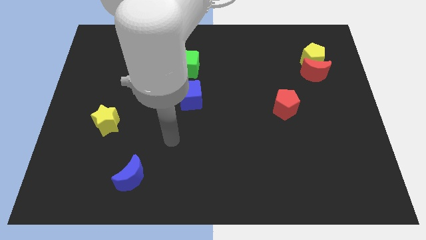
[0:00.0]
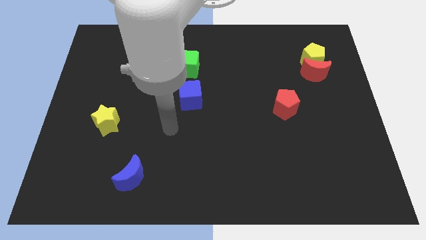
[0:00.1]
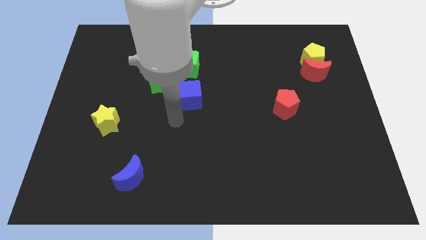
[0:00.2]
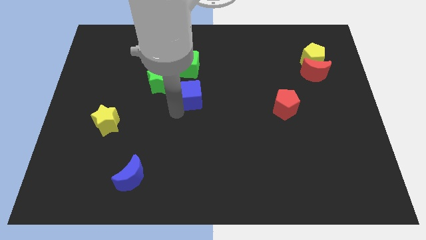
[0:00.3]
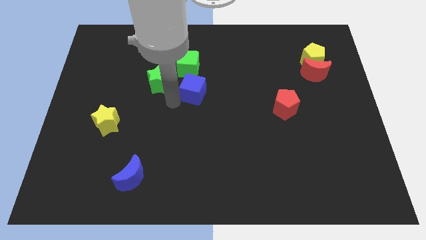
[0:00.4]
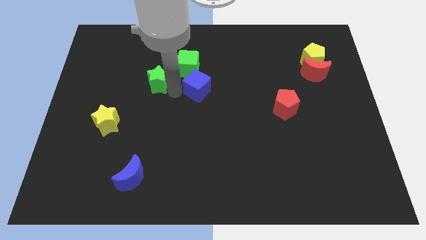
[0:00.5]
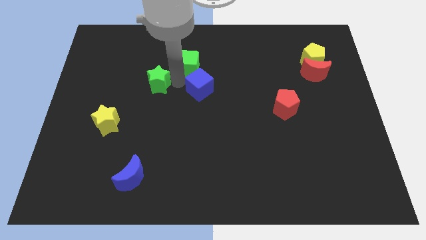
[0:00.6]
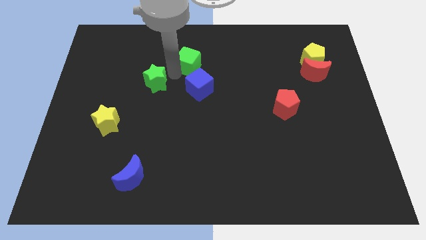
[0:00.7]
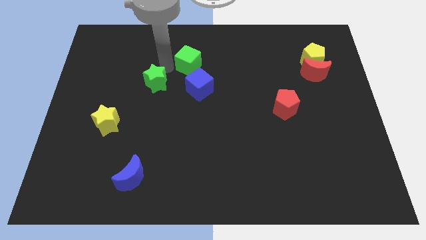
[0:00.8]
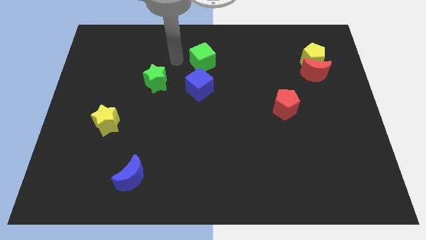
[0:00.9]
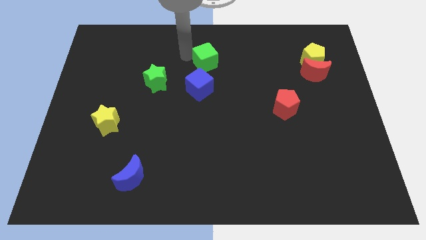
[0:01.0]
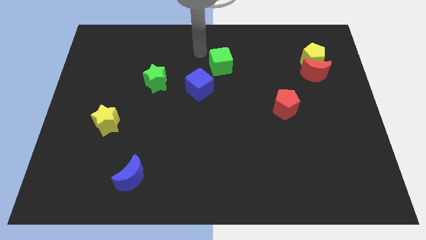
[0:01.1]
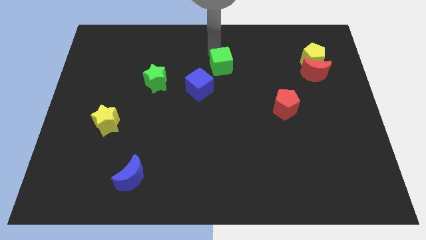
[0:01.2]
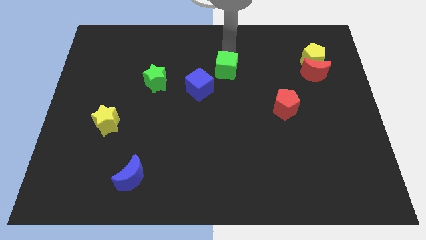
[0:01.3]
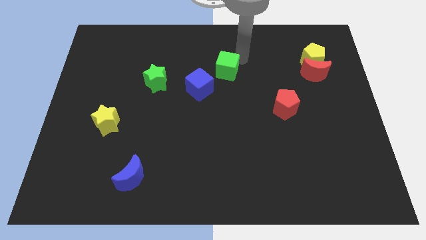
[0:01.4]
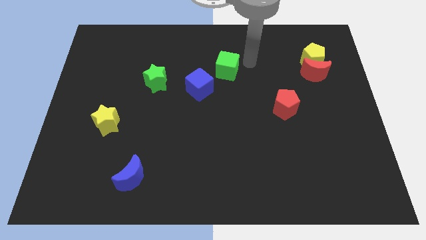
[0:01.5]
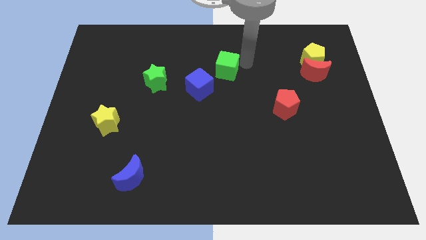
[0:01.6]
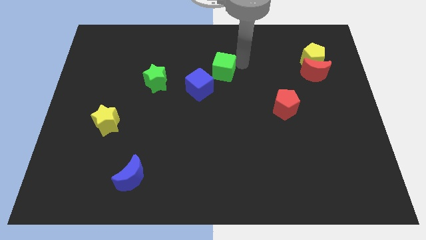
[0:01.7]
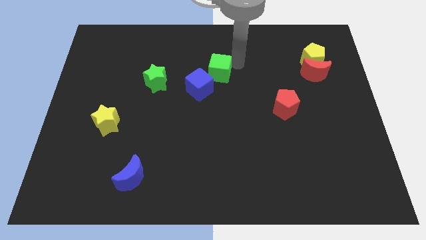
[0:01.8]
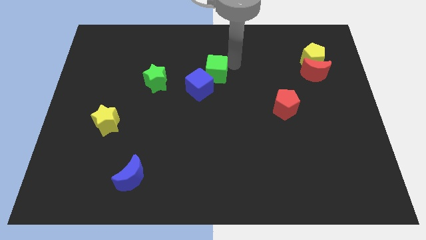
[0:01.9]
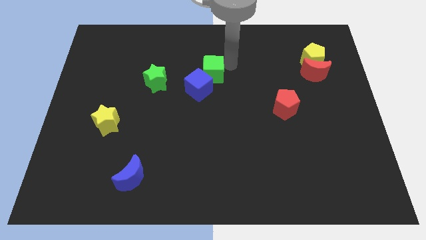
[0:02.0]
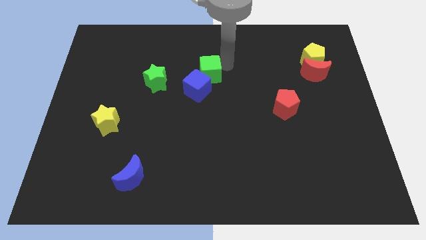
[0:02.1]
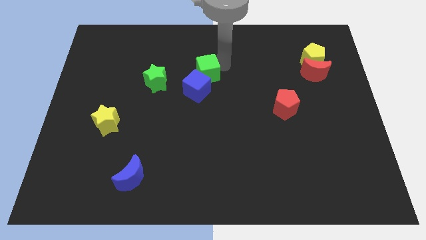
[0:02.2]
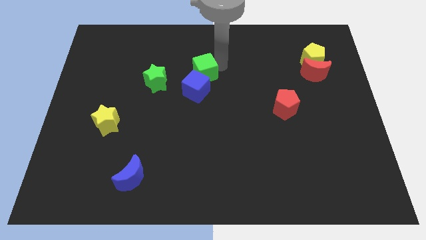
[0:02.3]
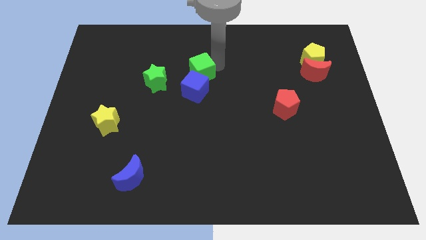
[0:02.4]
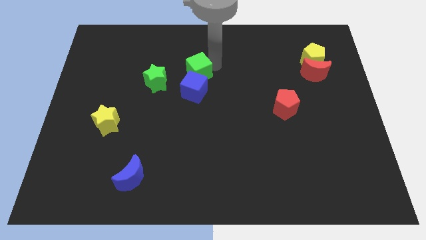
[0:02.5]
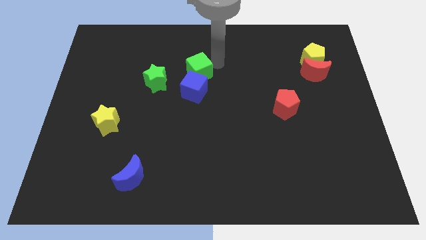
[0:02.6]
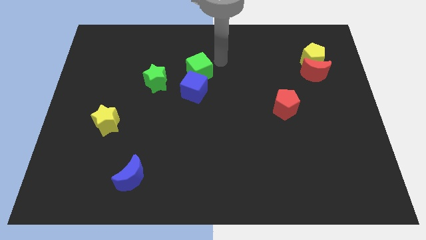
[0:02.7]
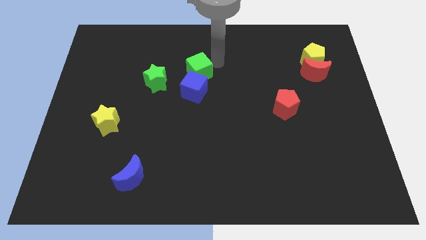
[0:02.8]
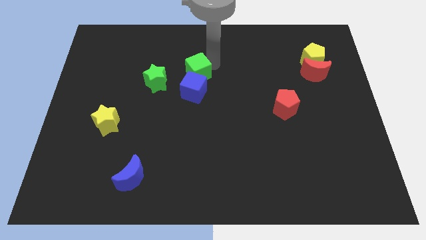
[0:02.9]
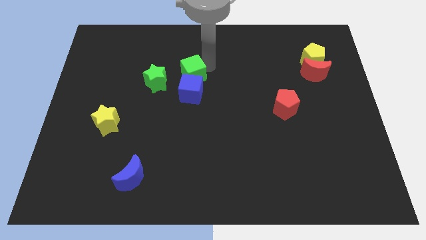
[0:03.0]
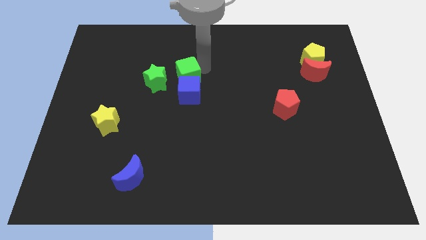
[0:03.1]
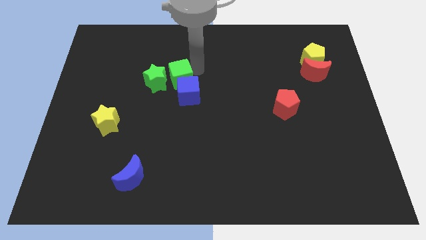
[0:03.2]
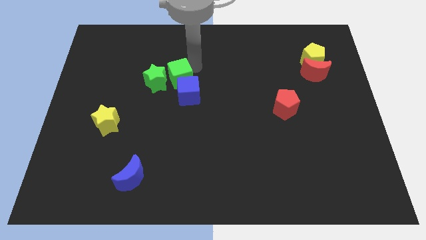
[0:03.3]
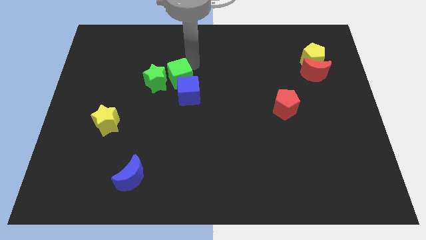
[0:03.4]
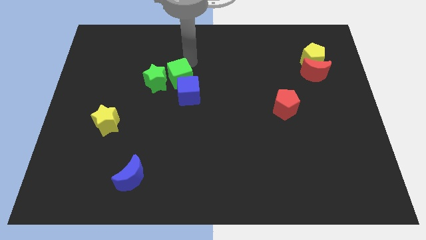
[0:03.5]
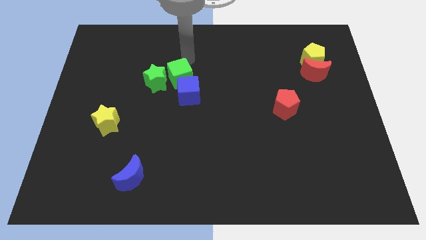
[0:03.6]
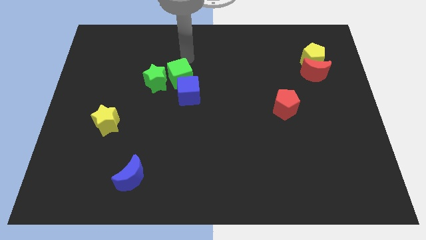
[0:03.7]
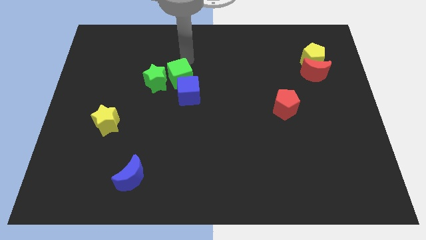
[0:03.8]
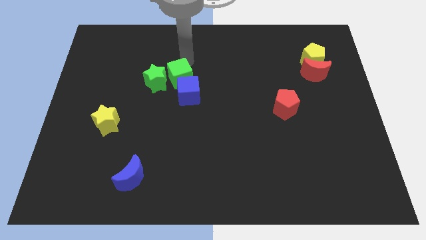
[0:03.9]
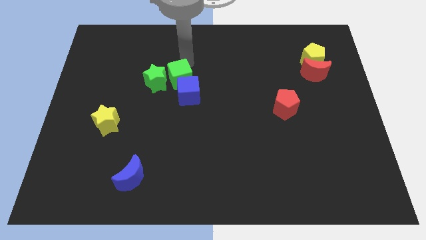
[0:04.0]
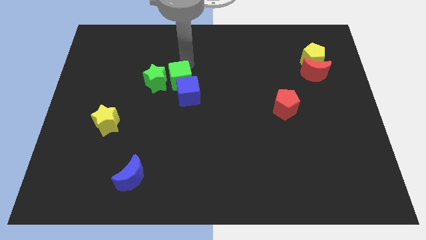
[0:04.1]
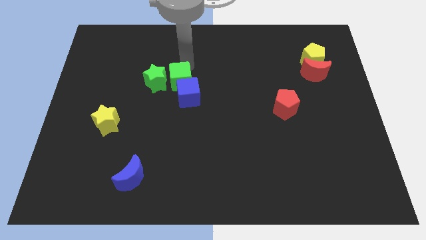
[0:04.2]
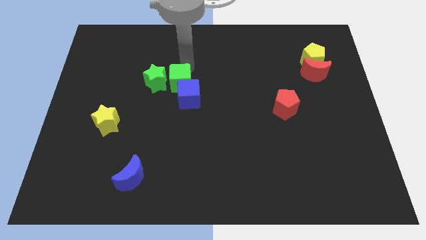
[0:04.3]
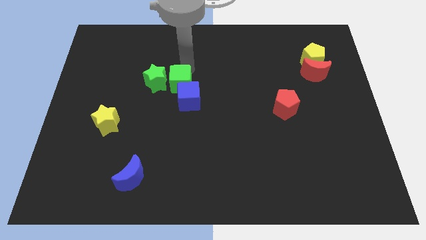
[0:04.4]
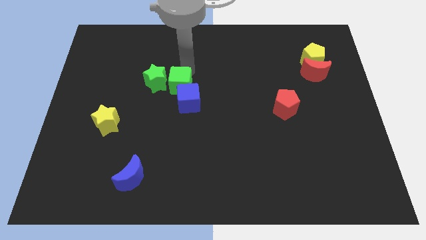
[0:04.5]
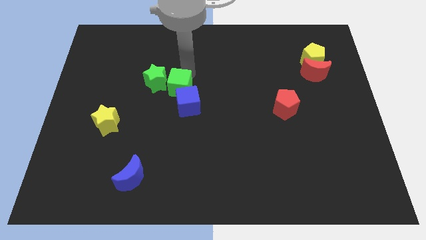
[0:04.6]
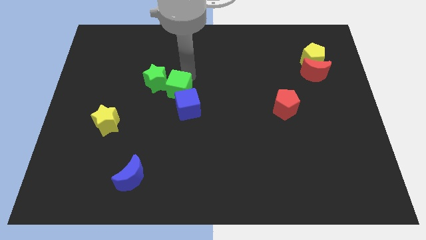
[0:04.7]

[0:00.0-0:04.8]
push the green cube somewhat downwards

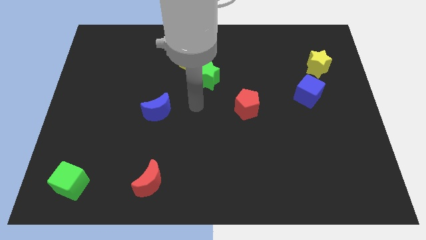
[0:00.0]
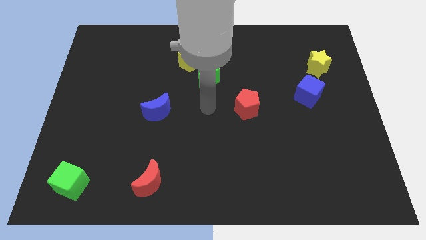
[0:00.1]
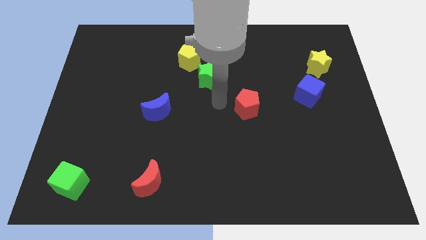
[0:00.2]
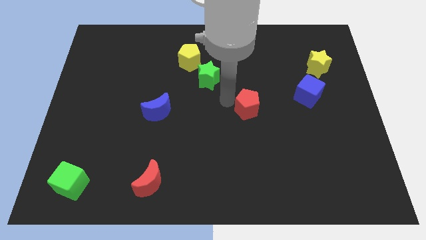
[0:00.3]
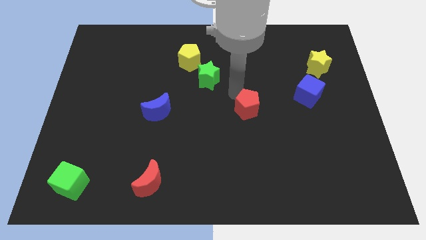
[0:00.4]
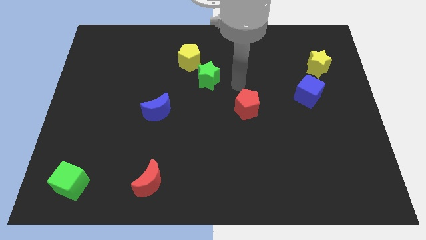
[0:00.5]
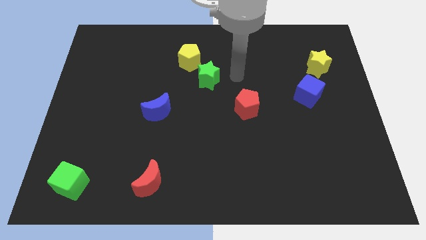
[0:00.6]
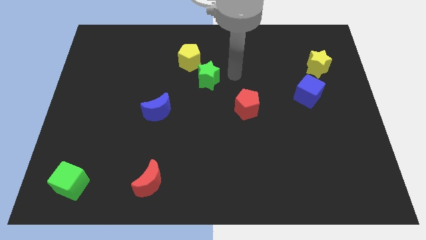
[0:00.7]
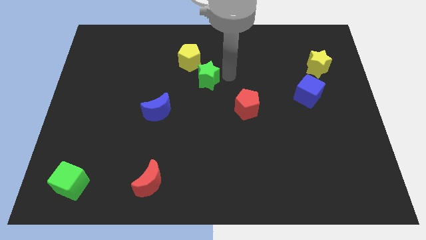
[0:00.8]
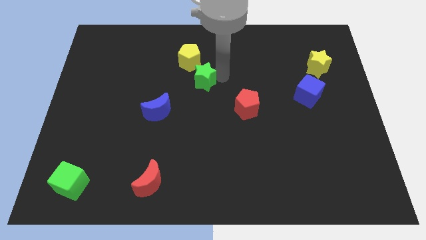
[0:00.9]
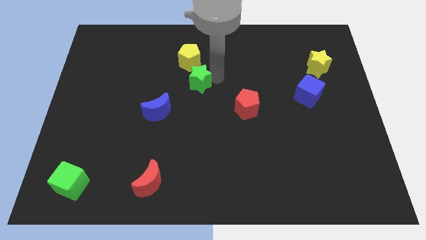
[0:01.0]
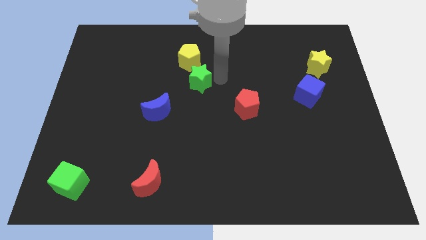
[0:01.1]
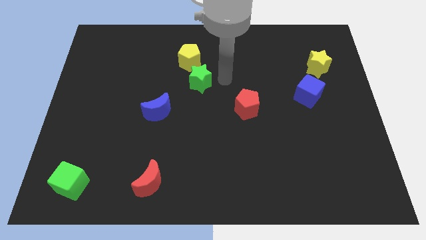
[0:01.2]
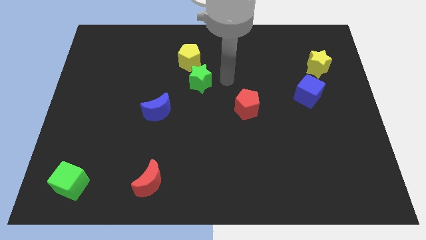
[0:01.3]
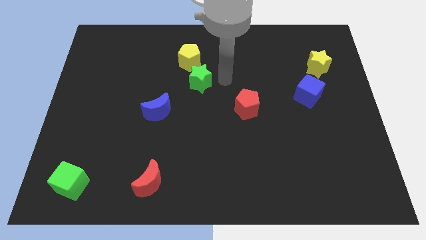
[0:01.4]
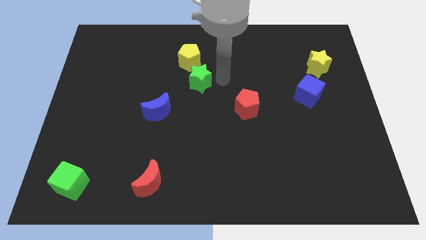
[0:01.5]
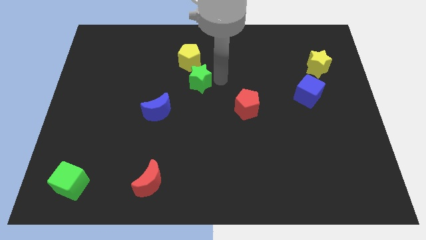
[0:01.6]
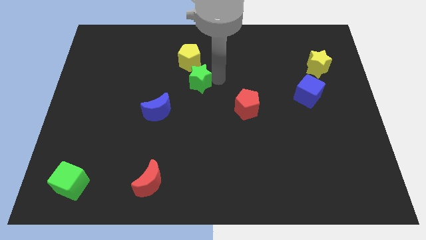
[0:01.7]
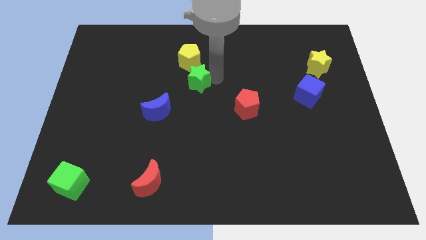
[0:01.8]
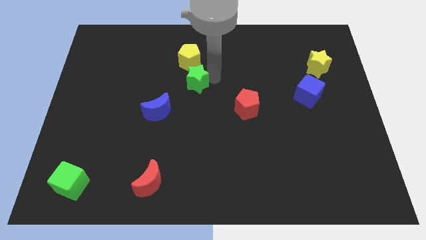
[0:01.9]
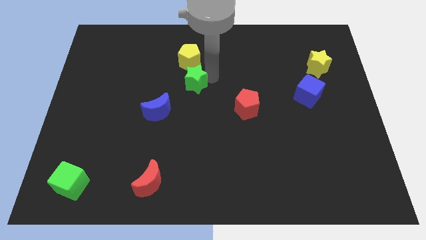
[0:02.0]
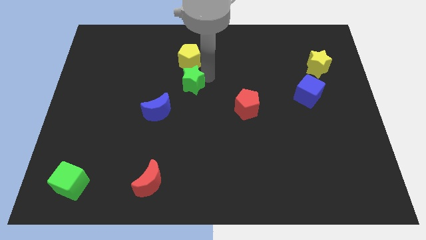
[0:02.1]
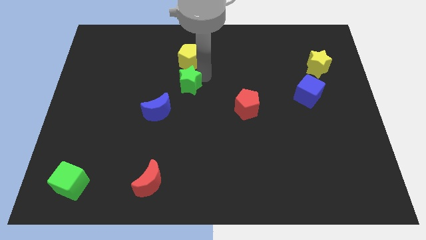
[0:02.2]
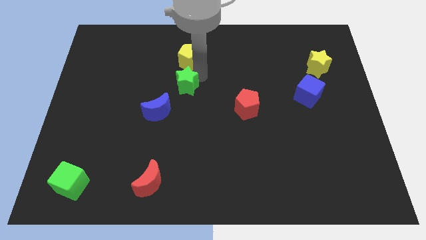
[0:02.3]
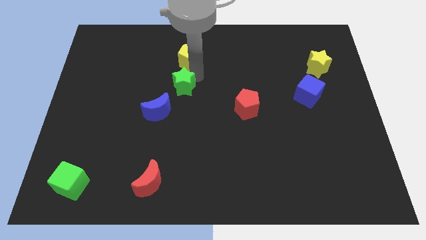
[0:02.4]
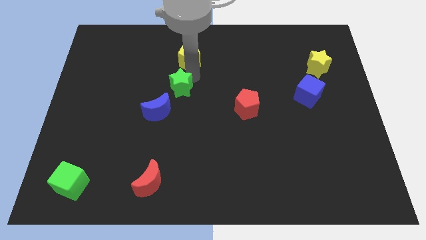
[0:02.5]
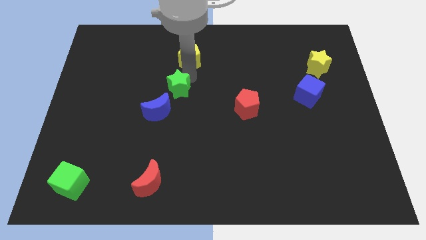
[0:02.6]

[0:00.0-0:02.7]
push the green star a little bit downwards and to the left diagonally

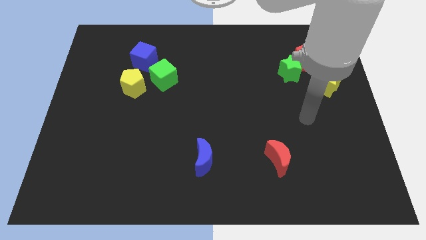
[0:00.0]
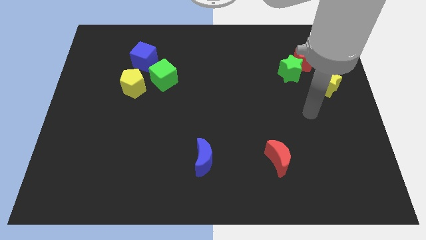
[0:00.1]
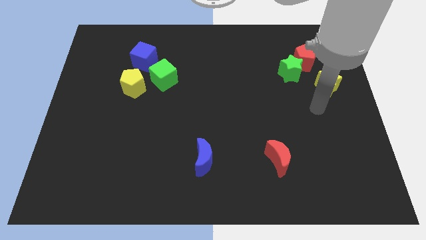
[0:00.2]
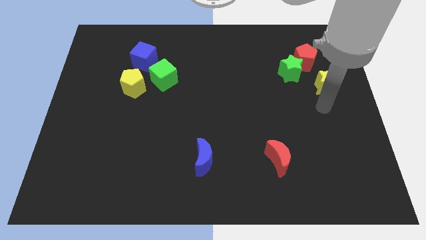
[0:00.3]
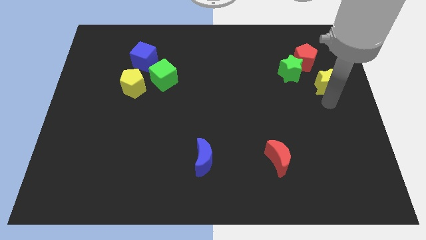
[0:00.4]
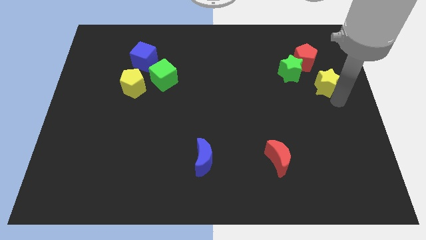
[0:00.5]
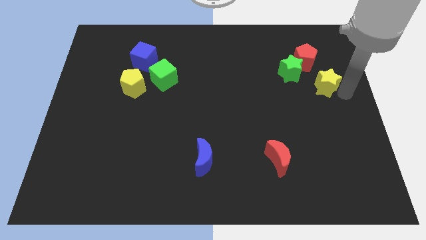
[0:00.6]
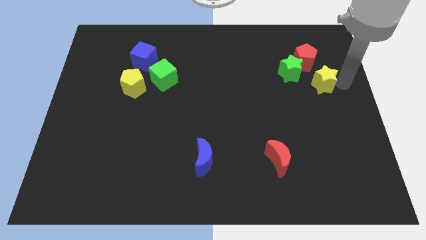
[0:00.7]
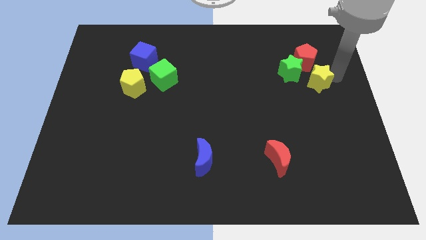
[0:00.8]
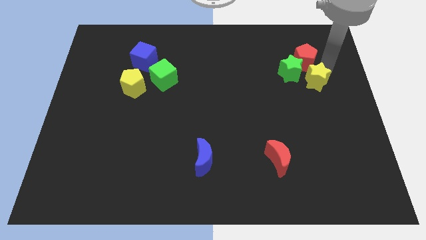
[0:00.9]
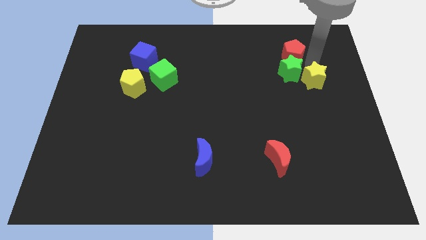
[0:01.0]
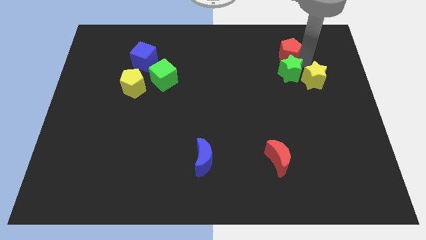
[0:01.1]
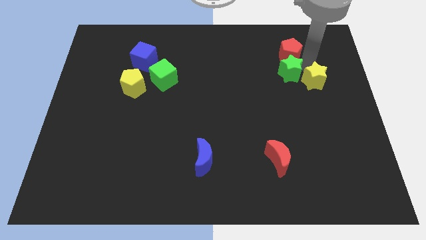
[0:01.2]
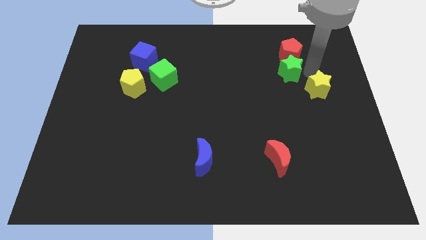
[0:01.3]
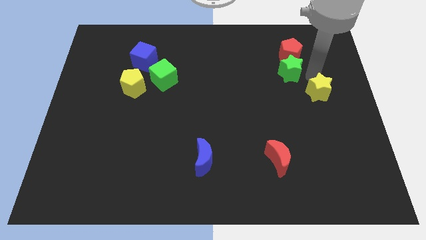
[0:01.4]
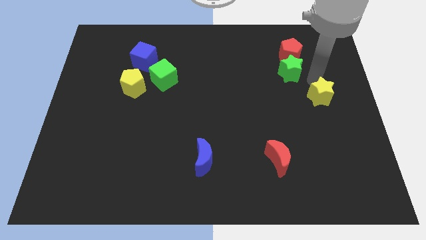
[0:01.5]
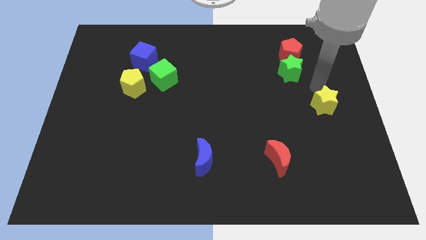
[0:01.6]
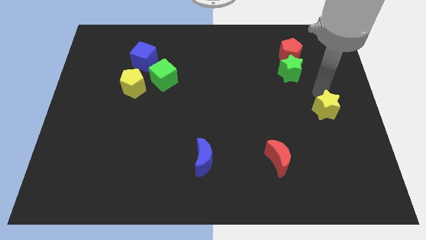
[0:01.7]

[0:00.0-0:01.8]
move the yellow star slightly downwards
